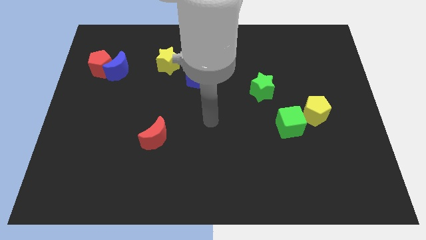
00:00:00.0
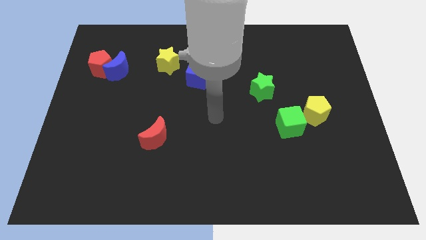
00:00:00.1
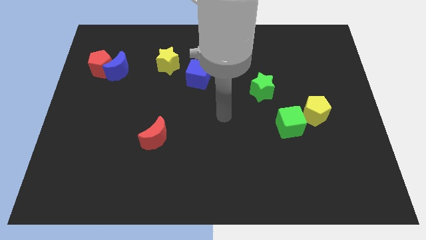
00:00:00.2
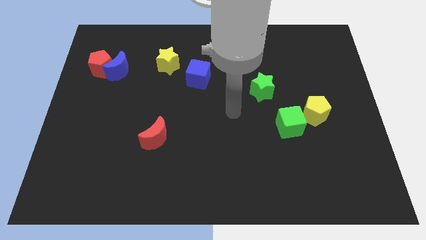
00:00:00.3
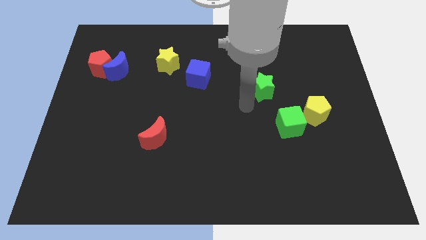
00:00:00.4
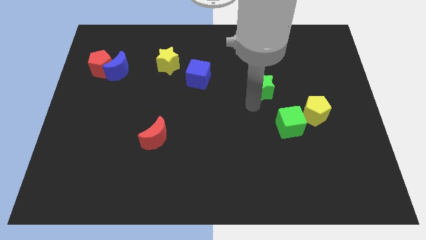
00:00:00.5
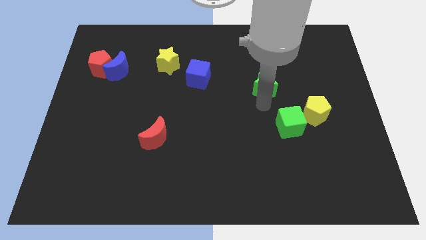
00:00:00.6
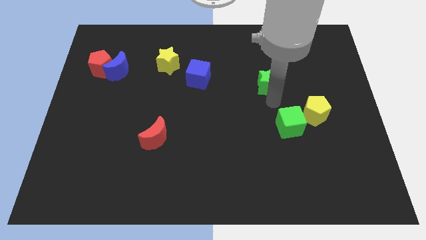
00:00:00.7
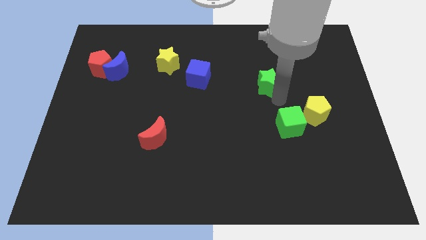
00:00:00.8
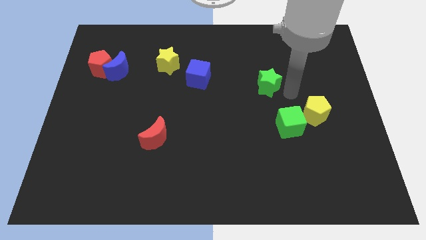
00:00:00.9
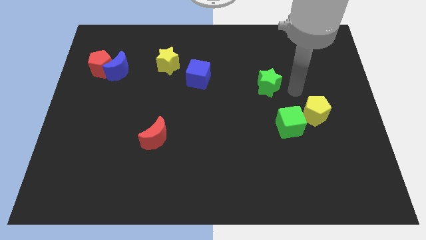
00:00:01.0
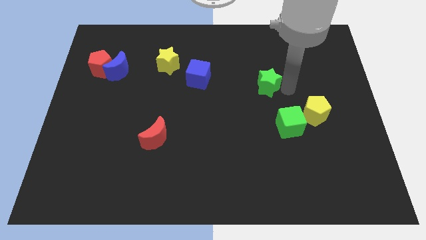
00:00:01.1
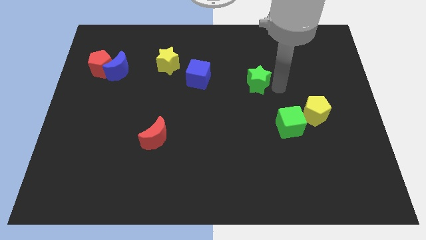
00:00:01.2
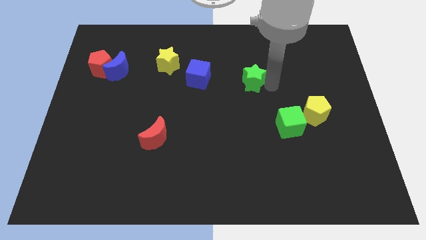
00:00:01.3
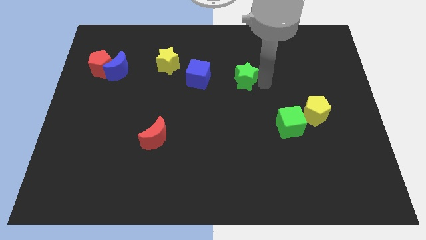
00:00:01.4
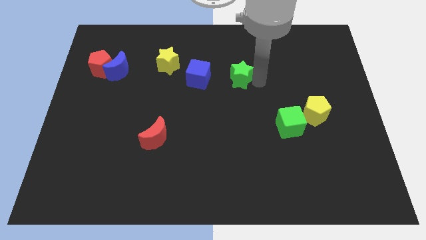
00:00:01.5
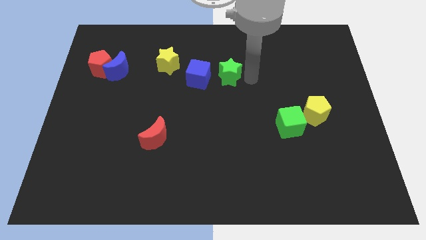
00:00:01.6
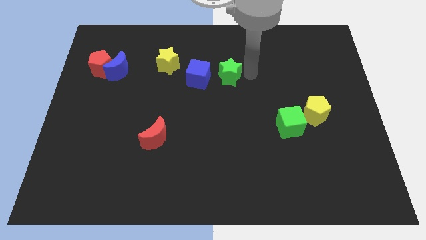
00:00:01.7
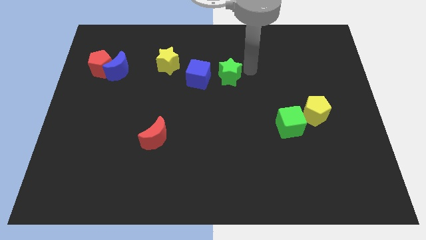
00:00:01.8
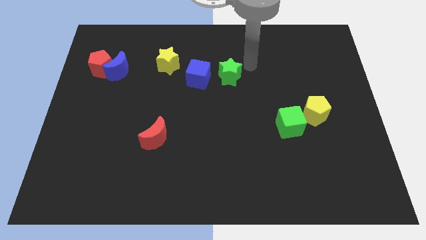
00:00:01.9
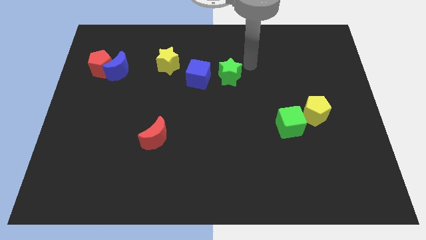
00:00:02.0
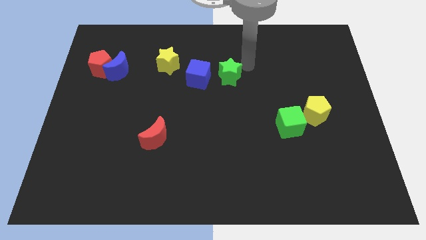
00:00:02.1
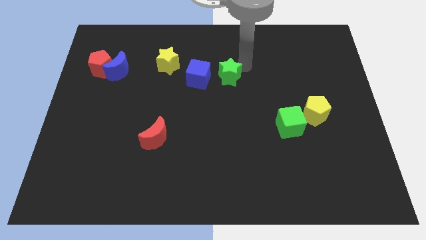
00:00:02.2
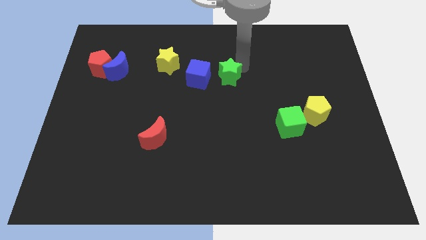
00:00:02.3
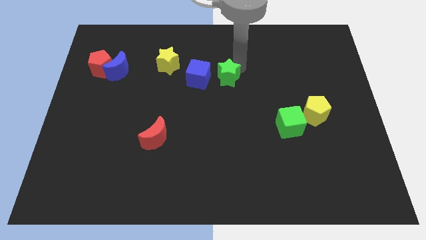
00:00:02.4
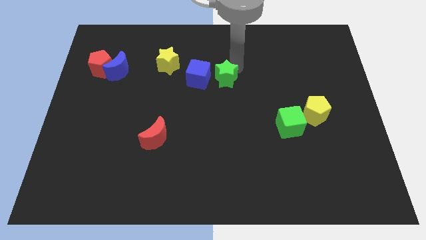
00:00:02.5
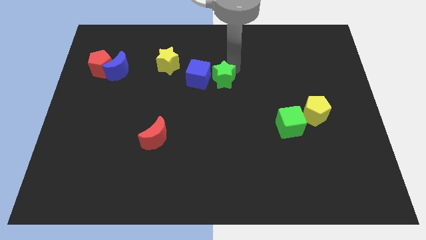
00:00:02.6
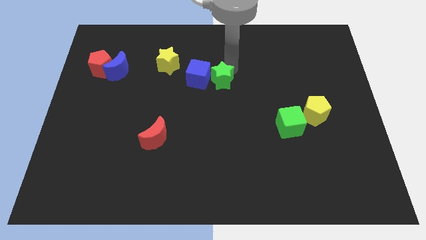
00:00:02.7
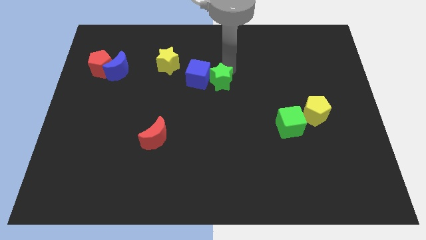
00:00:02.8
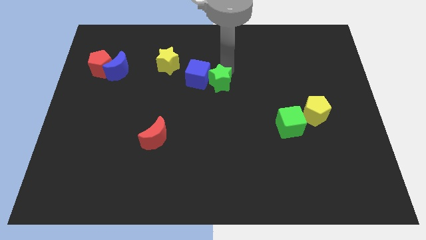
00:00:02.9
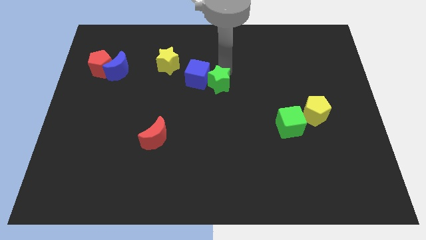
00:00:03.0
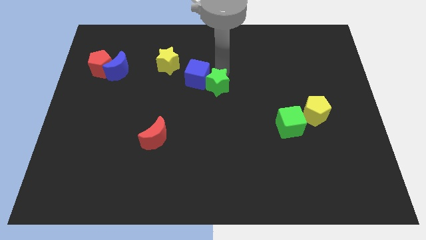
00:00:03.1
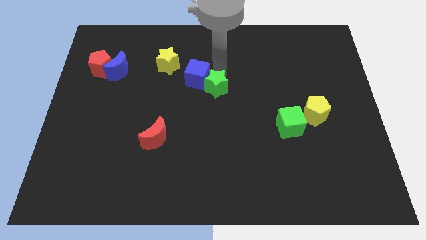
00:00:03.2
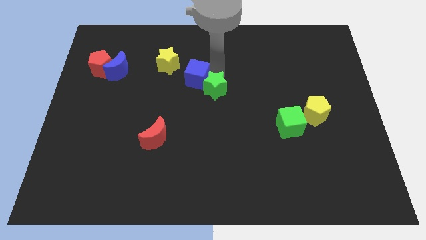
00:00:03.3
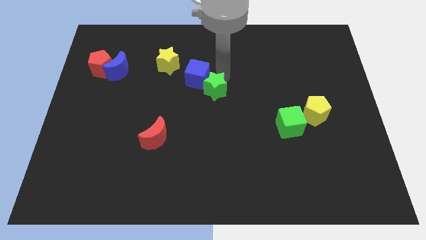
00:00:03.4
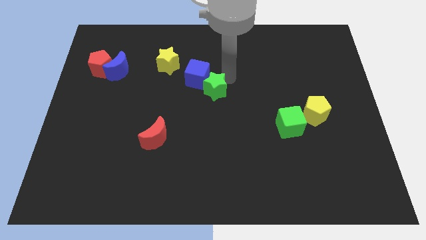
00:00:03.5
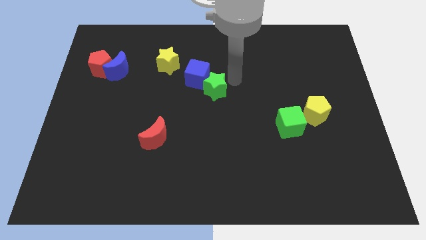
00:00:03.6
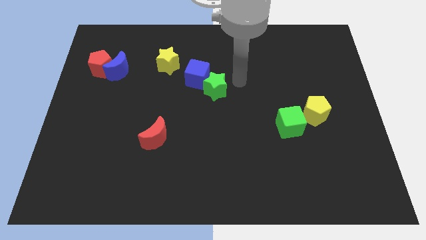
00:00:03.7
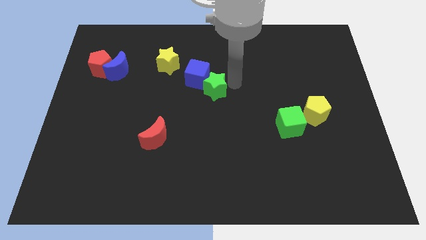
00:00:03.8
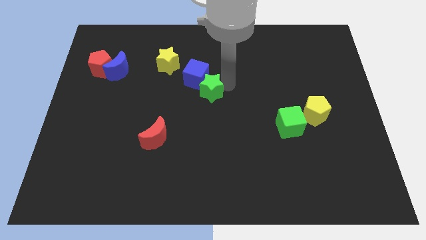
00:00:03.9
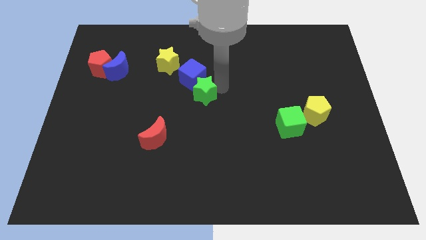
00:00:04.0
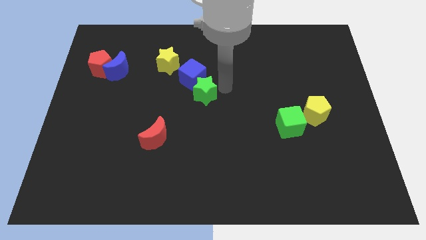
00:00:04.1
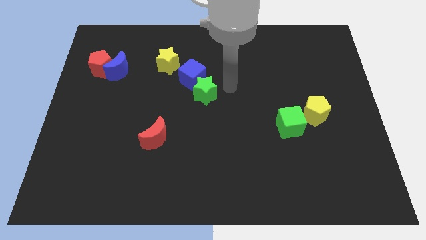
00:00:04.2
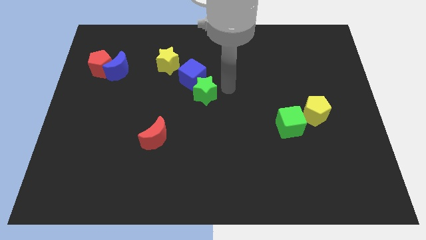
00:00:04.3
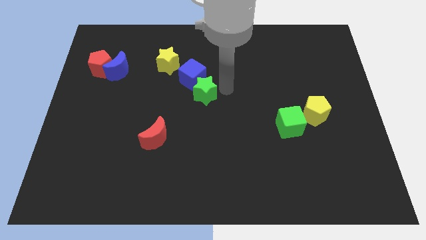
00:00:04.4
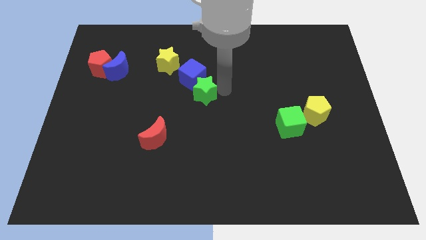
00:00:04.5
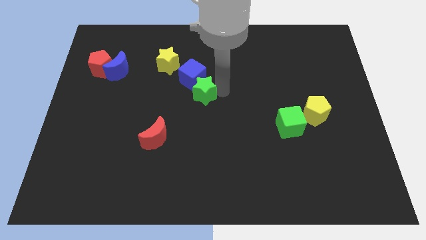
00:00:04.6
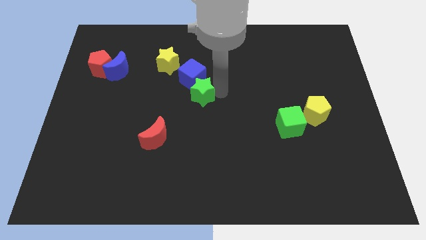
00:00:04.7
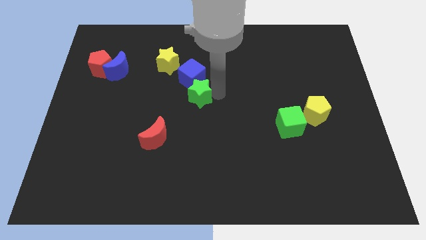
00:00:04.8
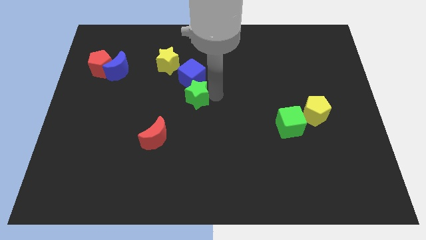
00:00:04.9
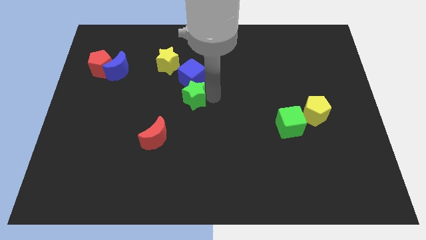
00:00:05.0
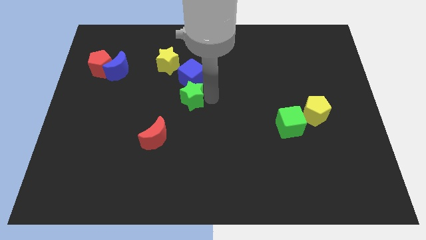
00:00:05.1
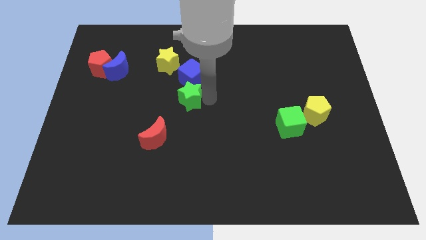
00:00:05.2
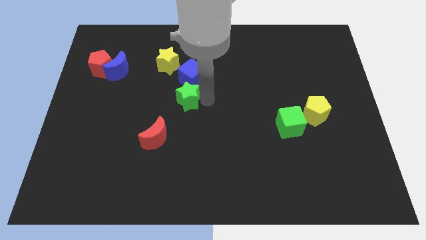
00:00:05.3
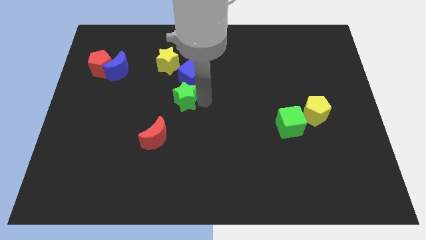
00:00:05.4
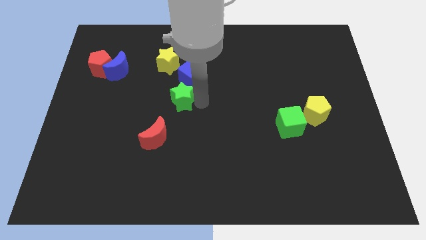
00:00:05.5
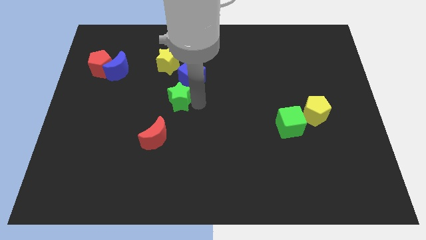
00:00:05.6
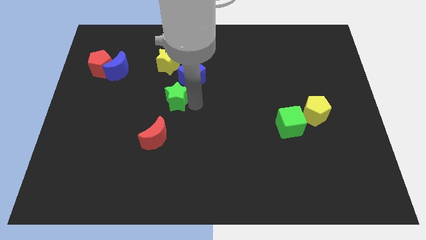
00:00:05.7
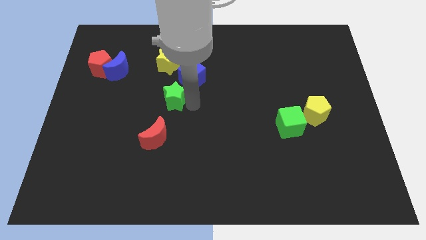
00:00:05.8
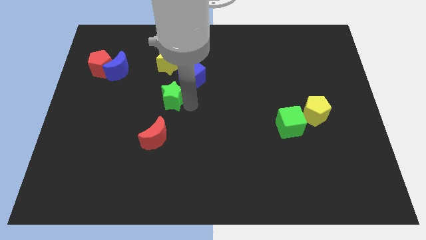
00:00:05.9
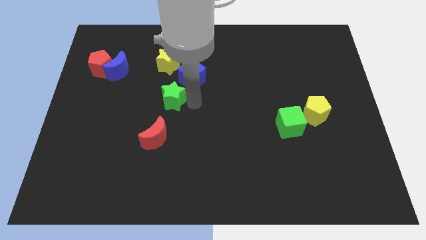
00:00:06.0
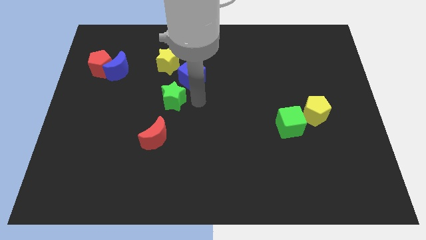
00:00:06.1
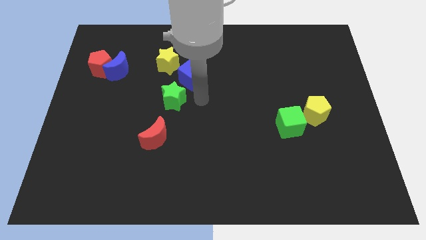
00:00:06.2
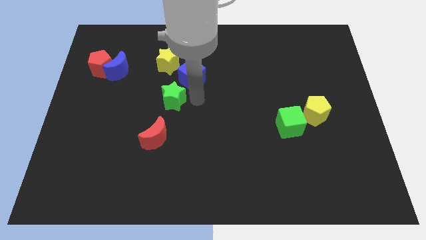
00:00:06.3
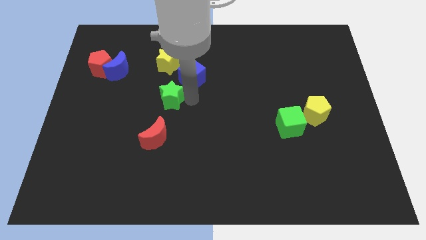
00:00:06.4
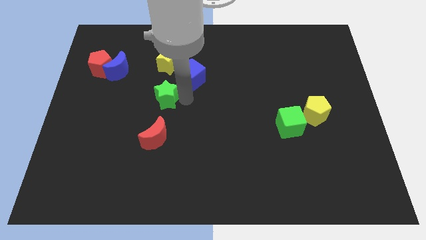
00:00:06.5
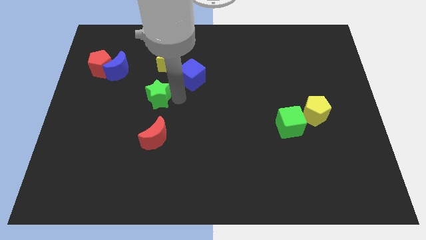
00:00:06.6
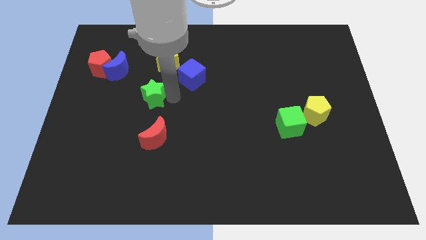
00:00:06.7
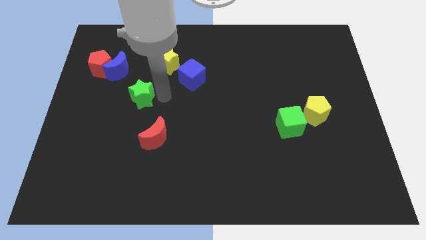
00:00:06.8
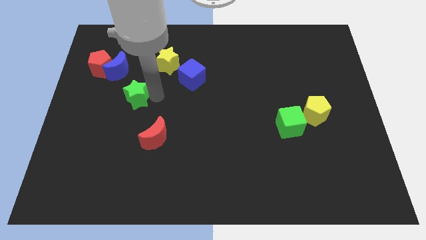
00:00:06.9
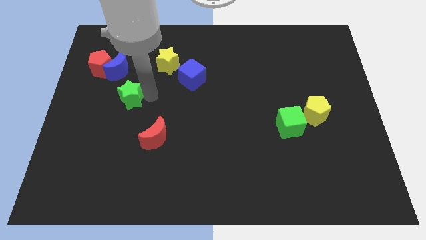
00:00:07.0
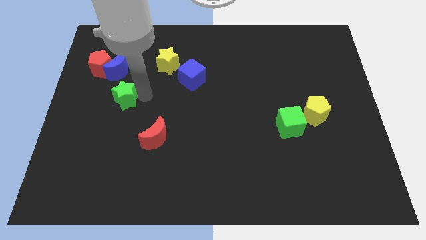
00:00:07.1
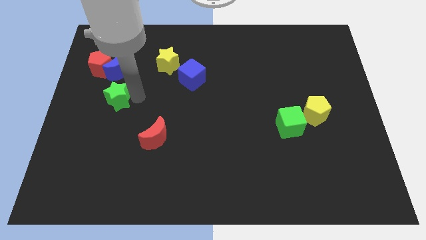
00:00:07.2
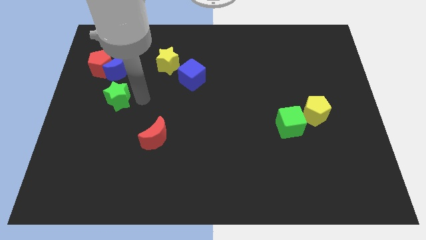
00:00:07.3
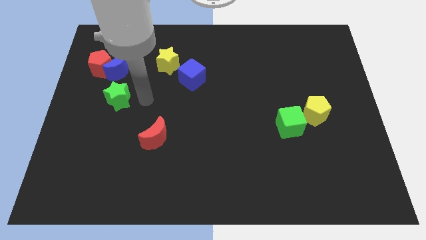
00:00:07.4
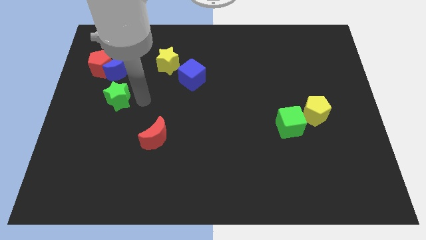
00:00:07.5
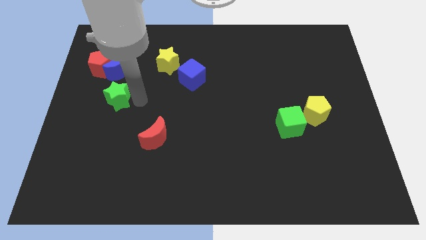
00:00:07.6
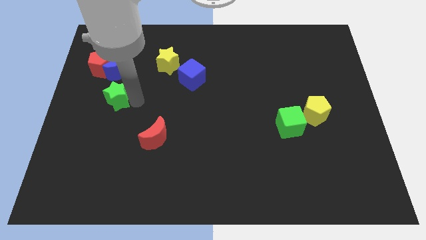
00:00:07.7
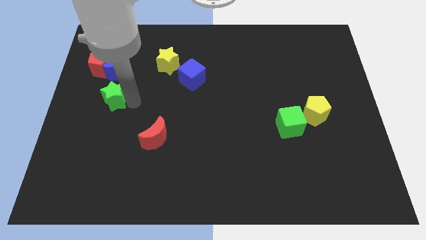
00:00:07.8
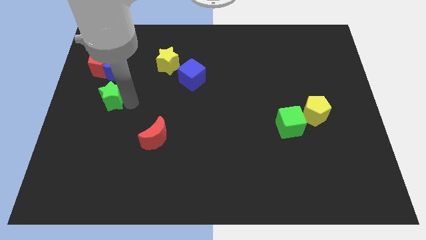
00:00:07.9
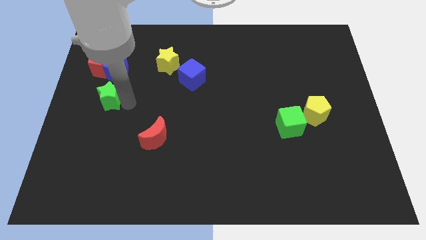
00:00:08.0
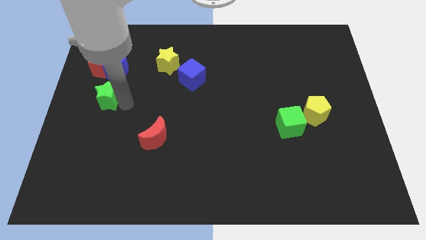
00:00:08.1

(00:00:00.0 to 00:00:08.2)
push the green star to the center left
